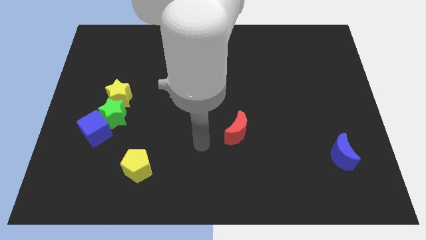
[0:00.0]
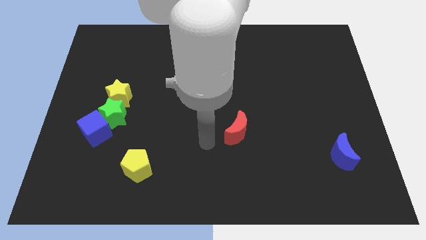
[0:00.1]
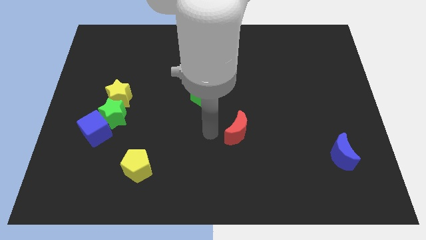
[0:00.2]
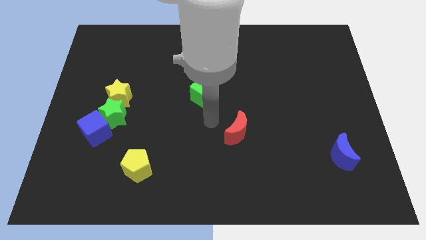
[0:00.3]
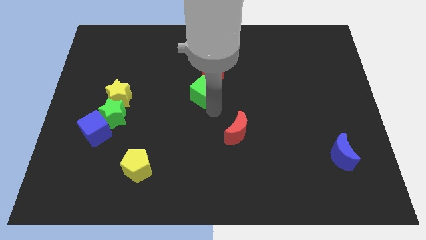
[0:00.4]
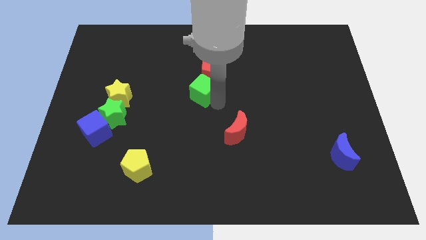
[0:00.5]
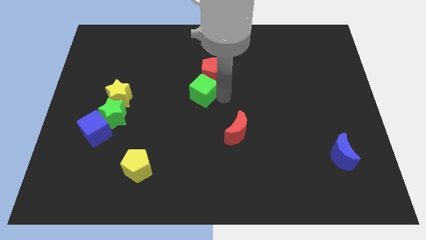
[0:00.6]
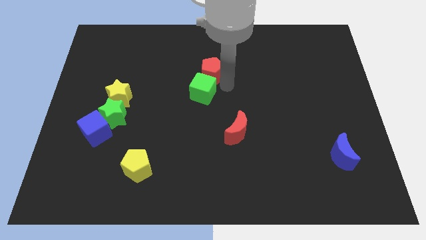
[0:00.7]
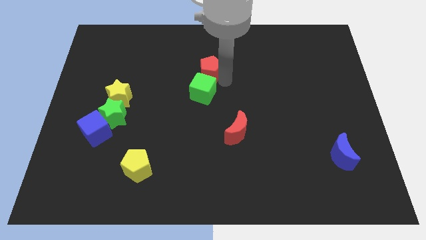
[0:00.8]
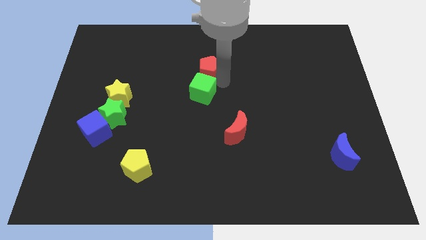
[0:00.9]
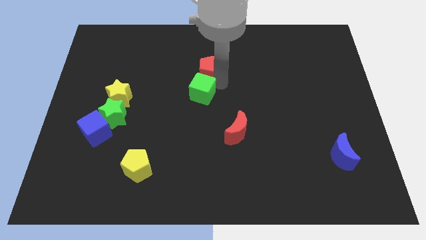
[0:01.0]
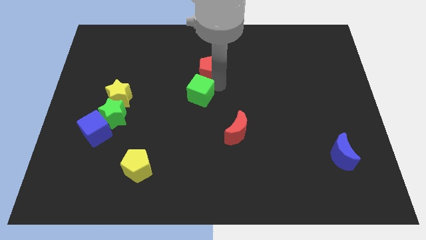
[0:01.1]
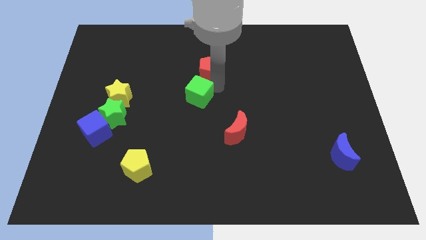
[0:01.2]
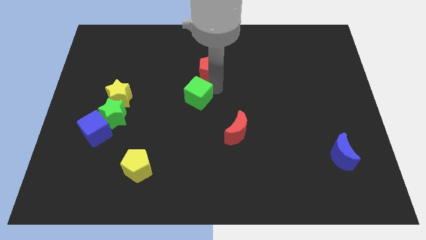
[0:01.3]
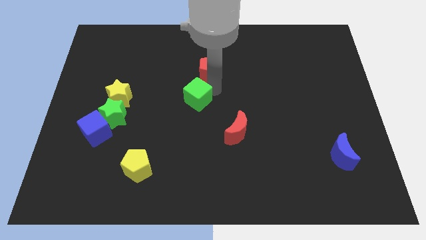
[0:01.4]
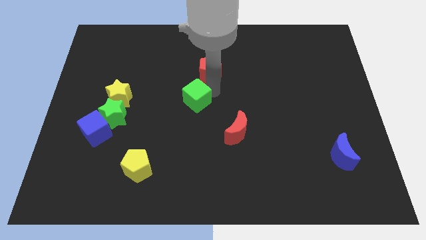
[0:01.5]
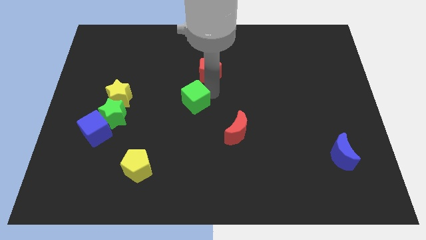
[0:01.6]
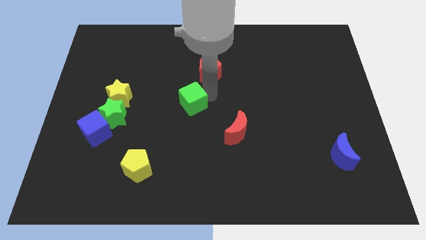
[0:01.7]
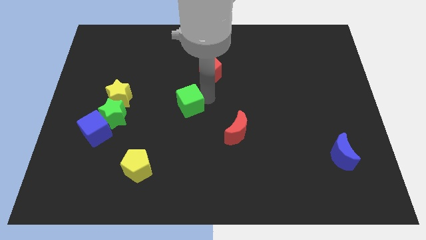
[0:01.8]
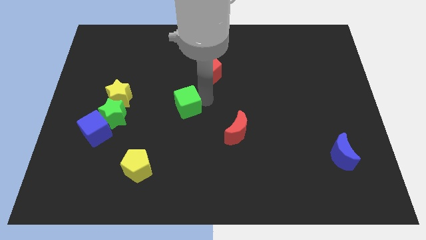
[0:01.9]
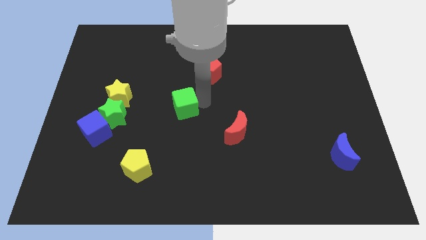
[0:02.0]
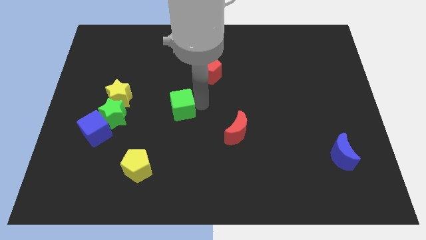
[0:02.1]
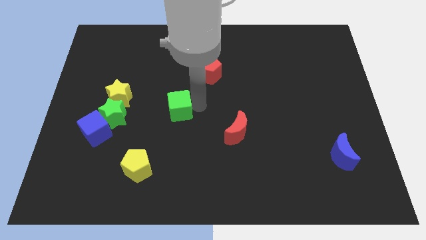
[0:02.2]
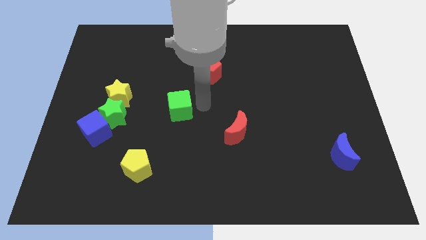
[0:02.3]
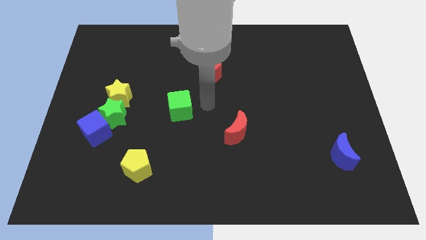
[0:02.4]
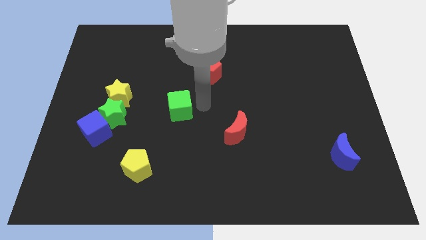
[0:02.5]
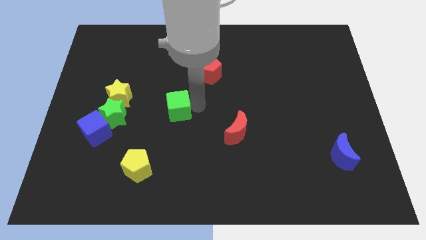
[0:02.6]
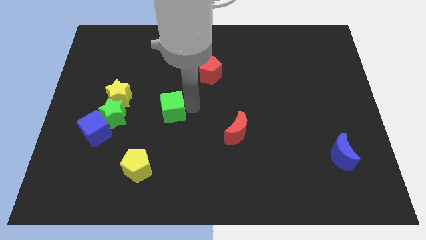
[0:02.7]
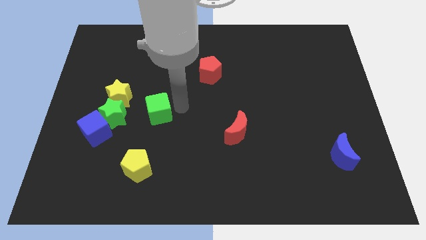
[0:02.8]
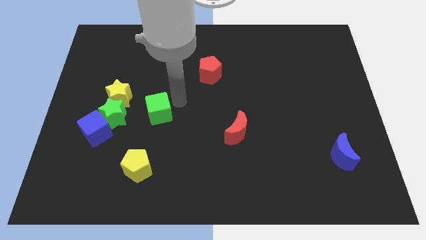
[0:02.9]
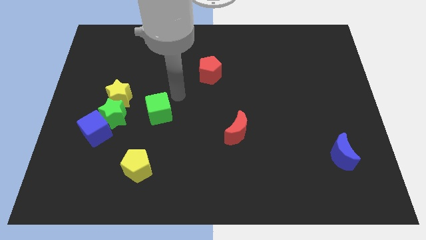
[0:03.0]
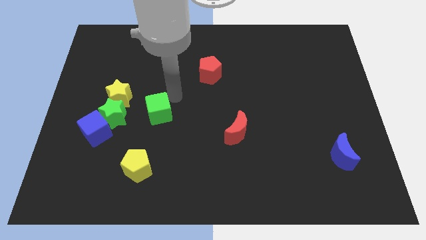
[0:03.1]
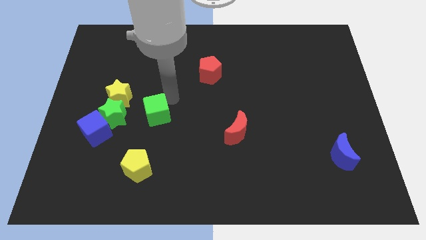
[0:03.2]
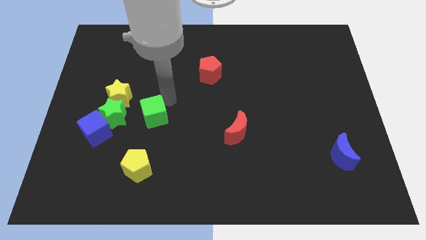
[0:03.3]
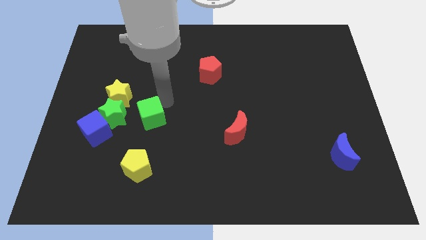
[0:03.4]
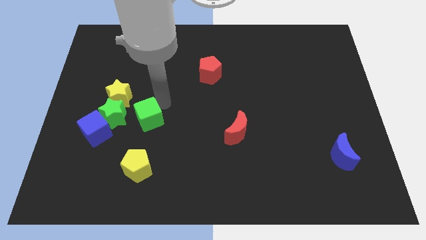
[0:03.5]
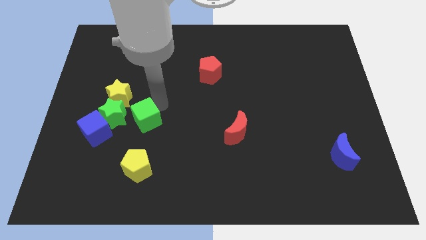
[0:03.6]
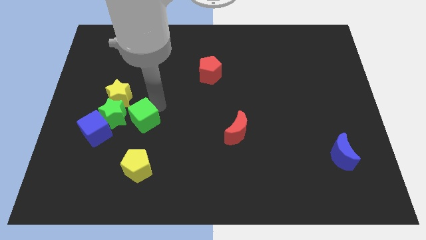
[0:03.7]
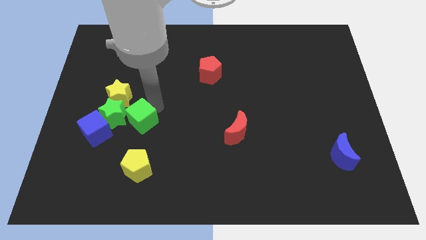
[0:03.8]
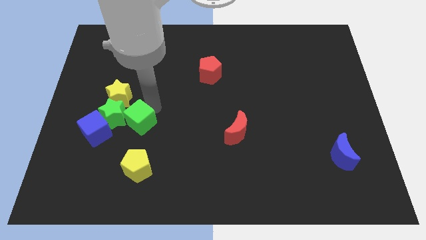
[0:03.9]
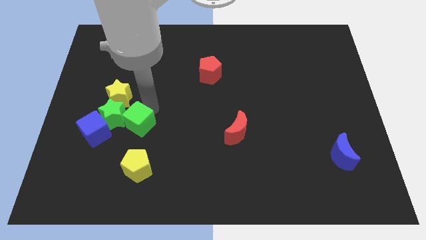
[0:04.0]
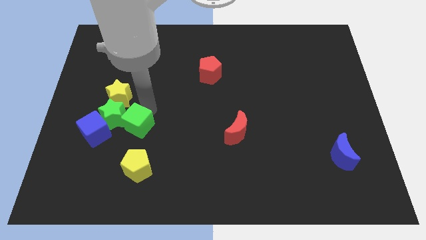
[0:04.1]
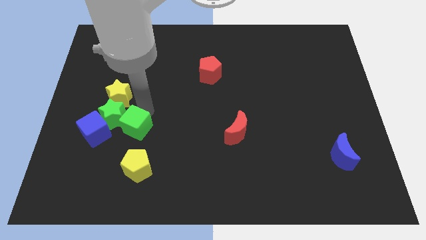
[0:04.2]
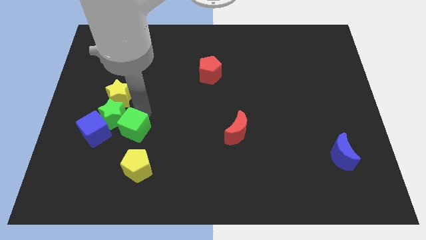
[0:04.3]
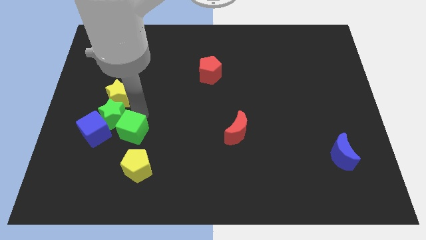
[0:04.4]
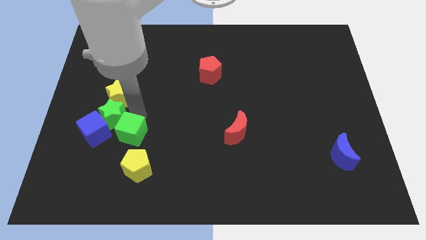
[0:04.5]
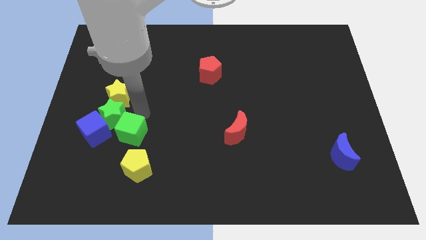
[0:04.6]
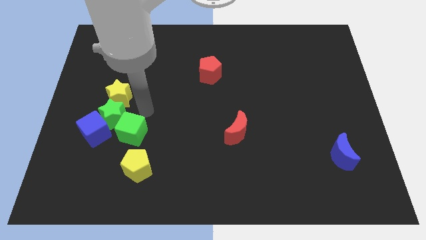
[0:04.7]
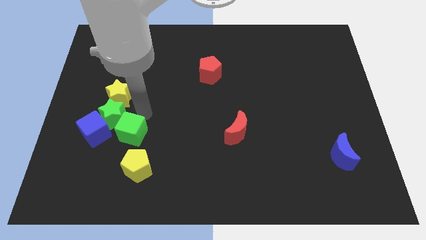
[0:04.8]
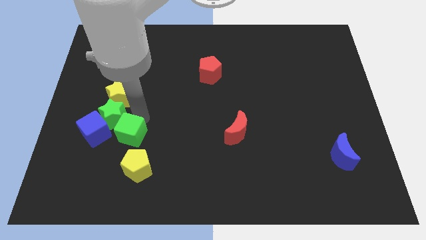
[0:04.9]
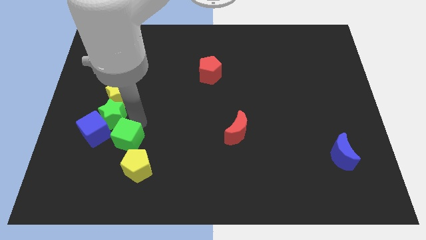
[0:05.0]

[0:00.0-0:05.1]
slide the green cube downwards and left diagonally

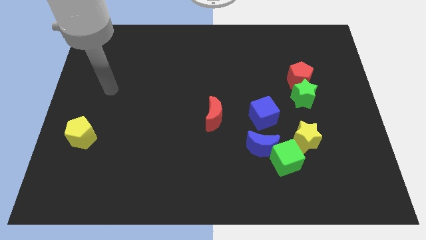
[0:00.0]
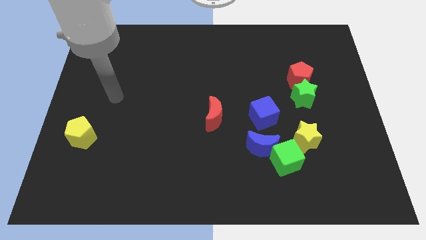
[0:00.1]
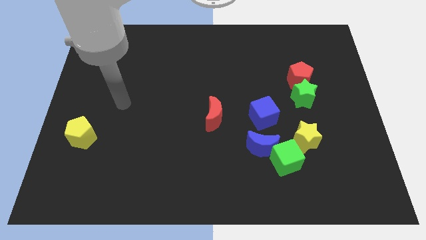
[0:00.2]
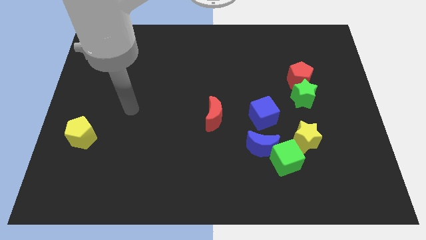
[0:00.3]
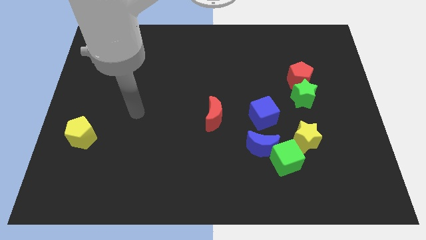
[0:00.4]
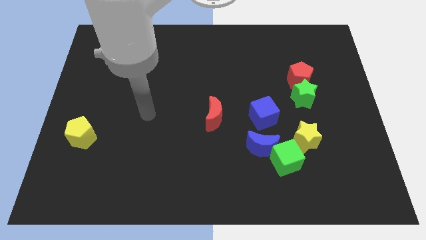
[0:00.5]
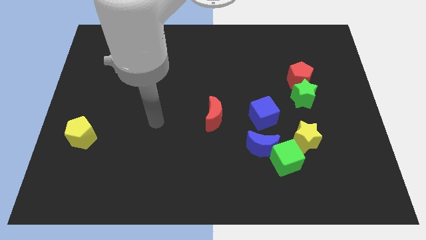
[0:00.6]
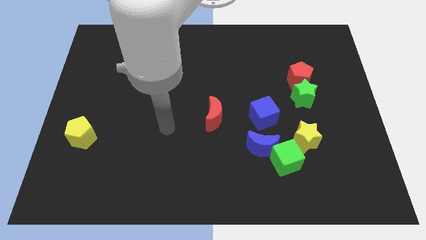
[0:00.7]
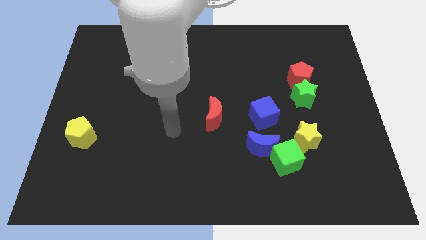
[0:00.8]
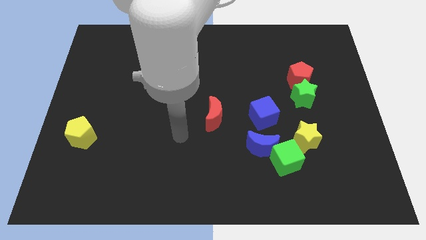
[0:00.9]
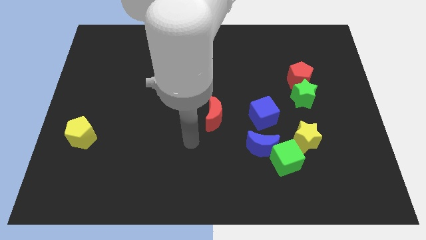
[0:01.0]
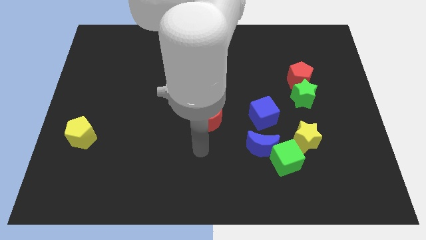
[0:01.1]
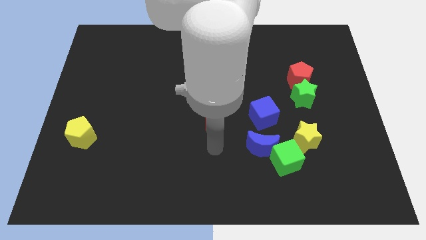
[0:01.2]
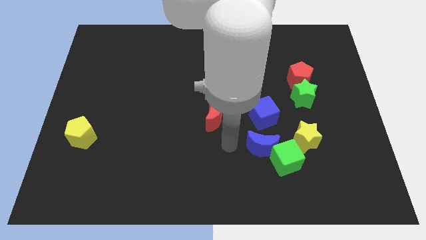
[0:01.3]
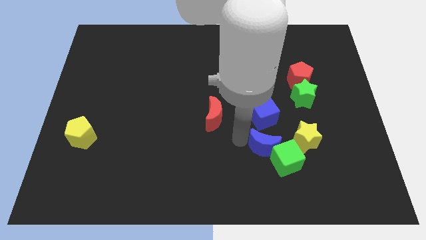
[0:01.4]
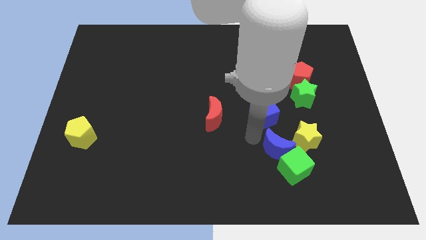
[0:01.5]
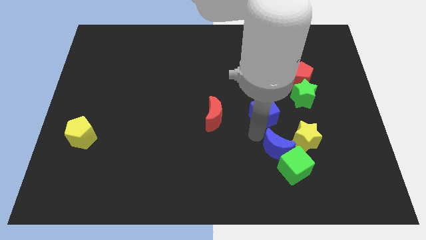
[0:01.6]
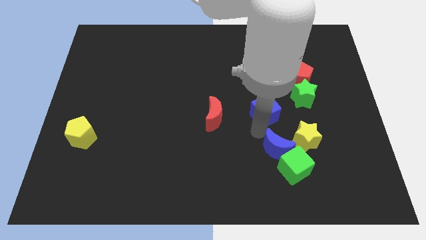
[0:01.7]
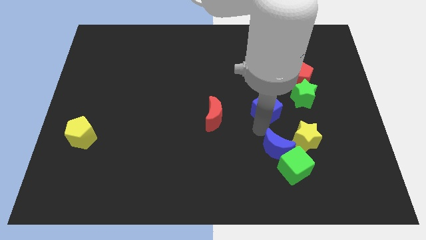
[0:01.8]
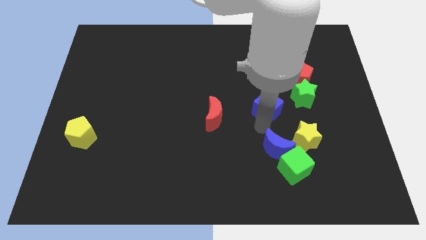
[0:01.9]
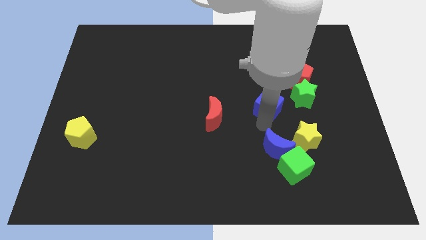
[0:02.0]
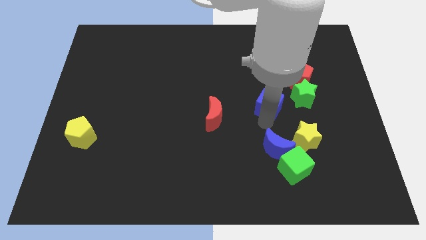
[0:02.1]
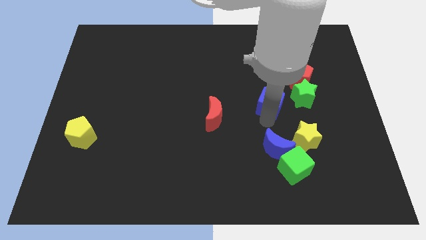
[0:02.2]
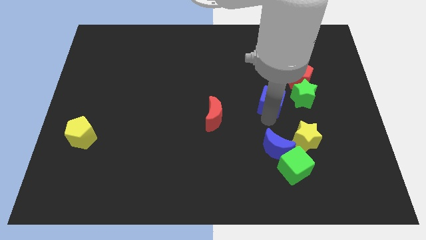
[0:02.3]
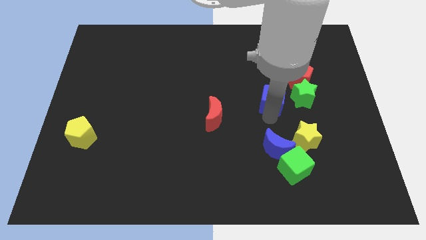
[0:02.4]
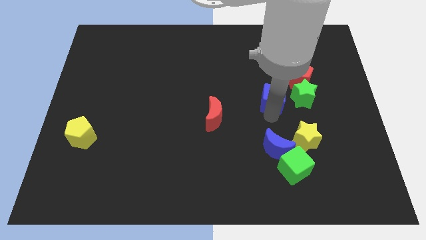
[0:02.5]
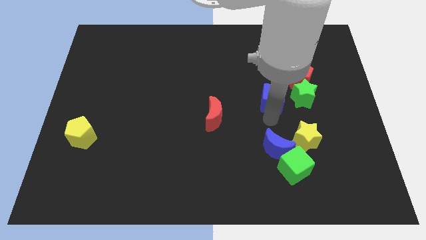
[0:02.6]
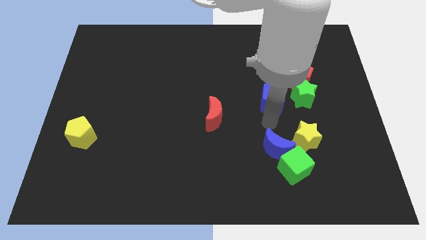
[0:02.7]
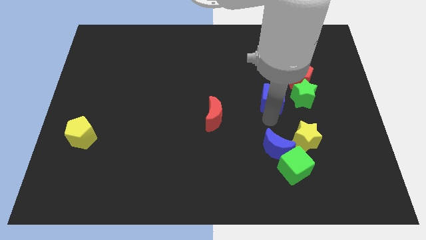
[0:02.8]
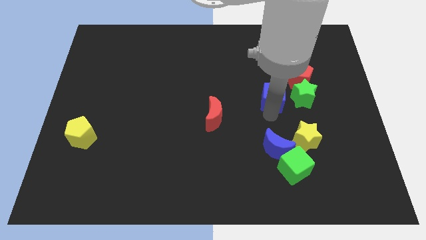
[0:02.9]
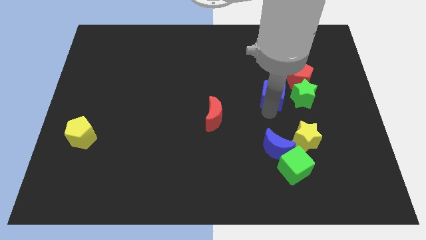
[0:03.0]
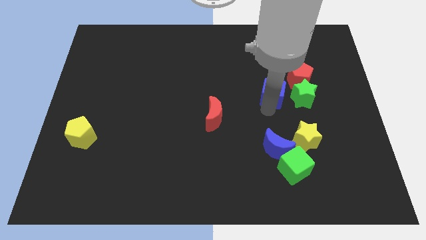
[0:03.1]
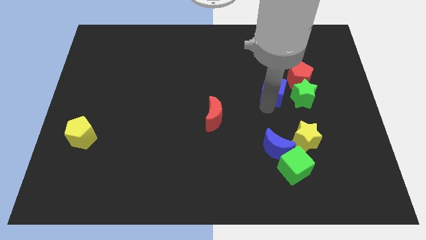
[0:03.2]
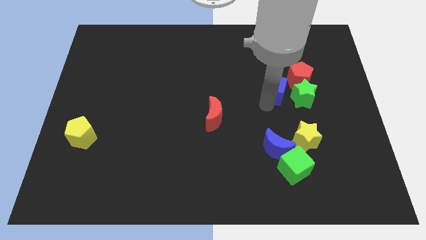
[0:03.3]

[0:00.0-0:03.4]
slide the blue cube slightly upwards and right
